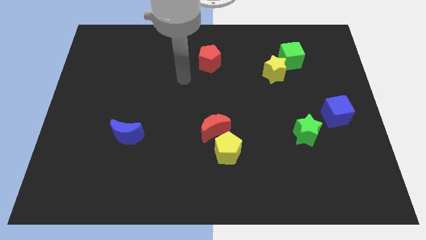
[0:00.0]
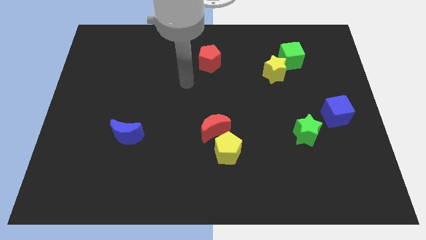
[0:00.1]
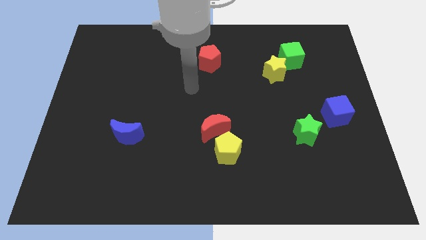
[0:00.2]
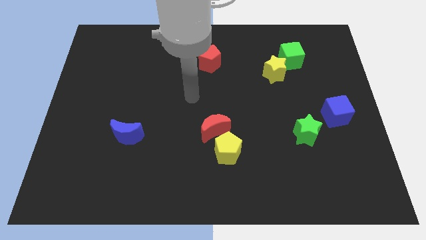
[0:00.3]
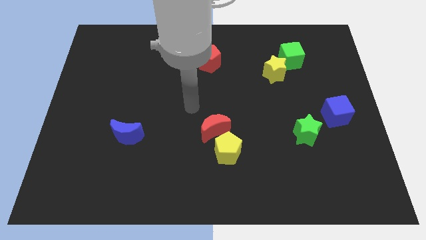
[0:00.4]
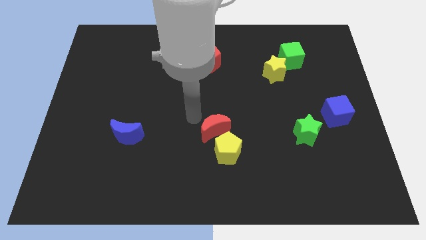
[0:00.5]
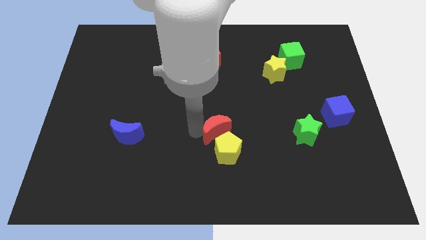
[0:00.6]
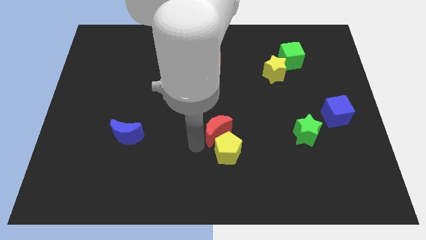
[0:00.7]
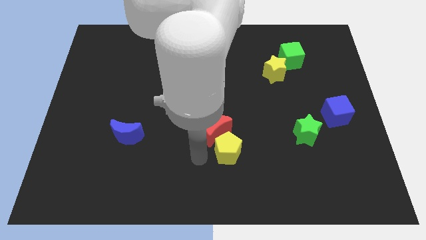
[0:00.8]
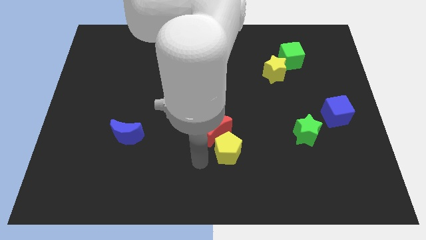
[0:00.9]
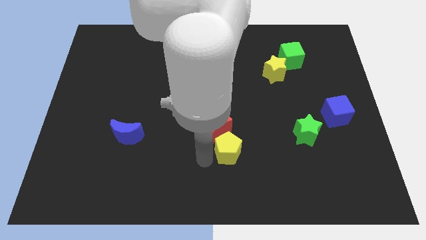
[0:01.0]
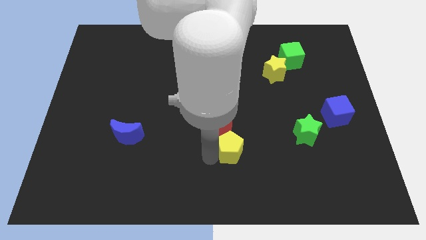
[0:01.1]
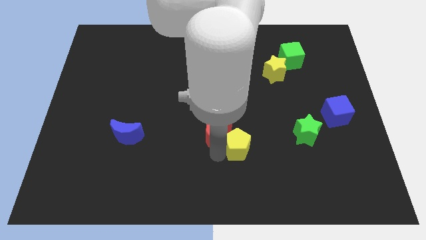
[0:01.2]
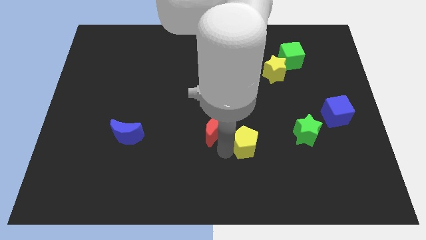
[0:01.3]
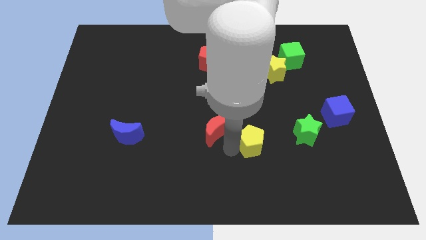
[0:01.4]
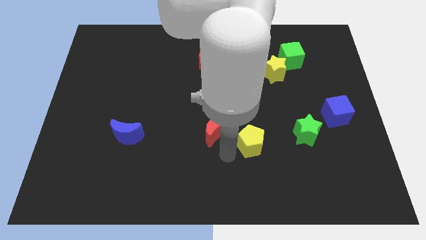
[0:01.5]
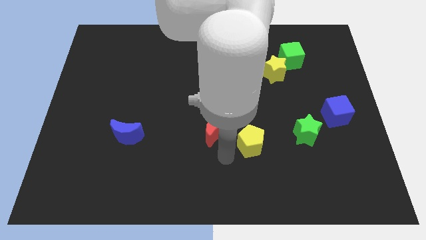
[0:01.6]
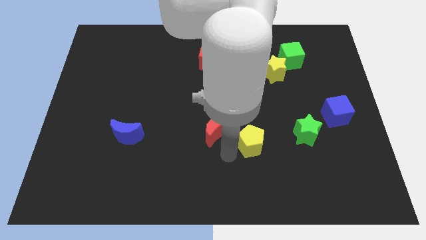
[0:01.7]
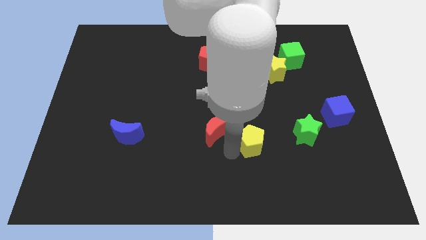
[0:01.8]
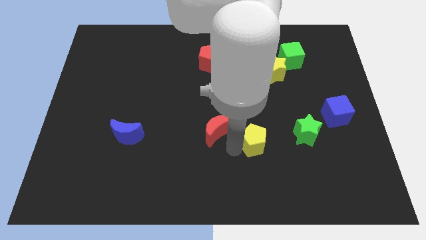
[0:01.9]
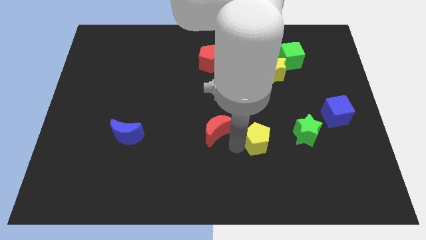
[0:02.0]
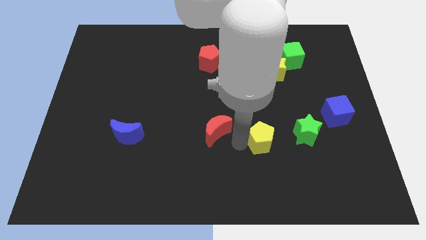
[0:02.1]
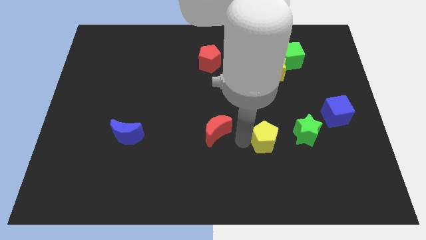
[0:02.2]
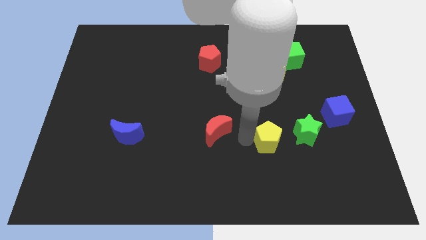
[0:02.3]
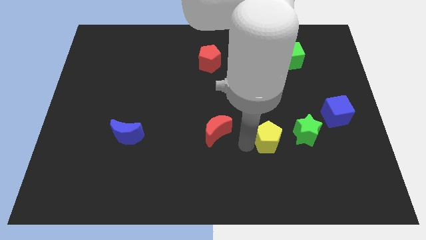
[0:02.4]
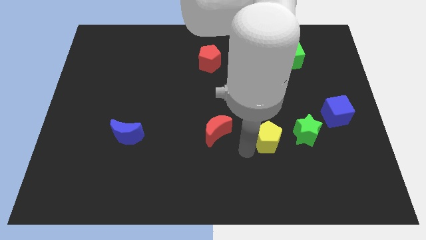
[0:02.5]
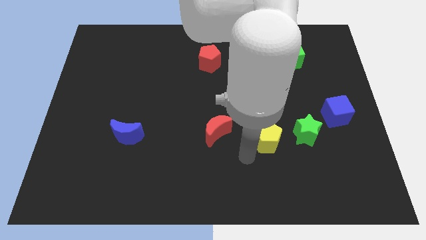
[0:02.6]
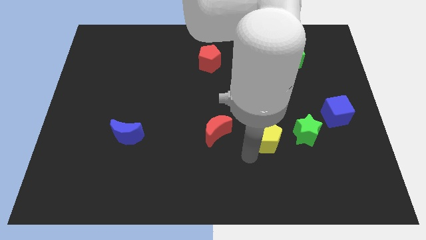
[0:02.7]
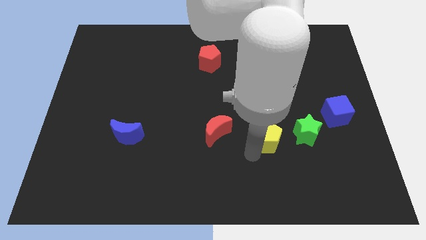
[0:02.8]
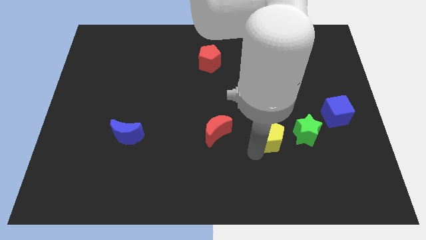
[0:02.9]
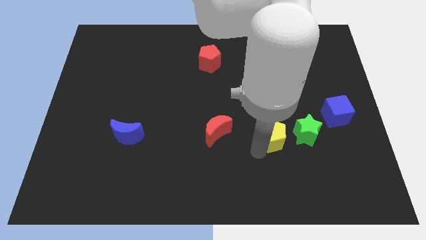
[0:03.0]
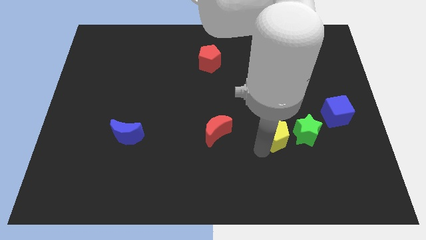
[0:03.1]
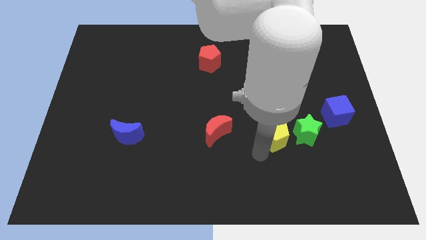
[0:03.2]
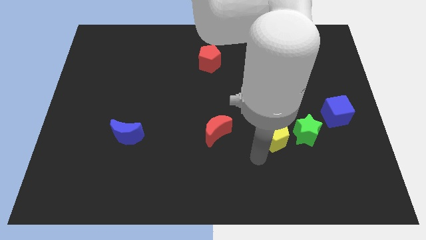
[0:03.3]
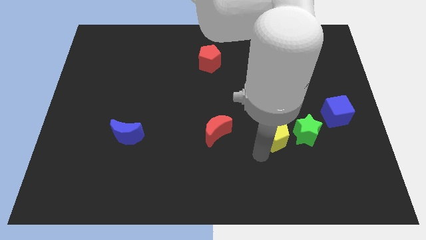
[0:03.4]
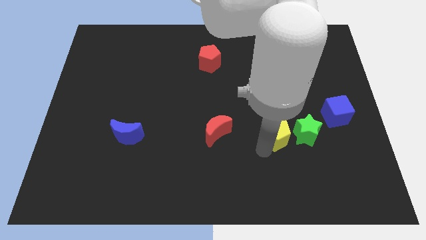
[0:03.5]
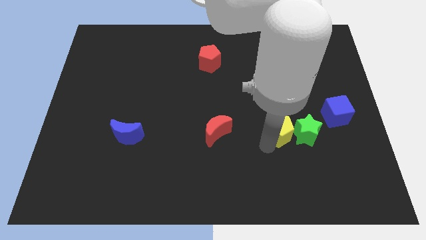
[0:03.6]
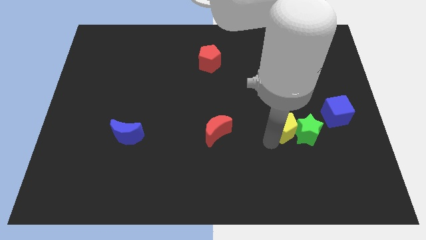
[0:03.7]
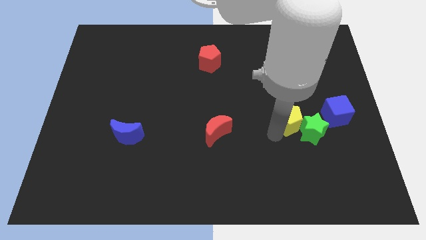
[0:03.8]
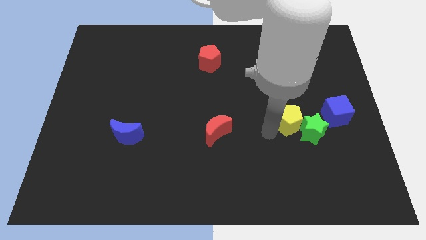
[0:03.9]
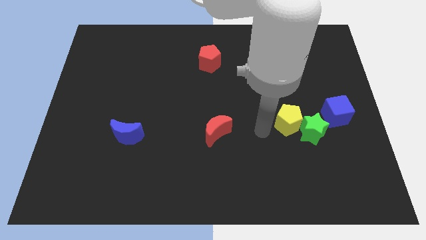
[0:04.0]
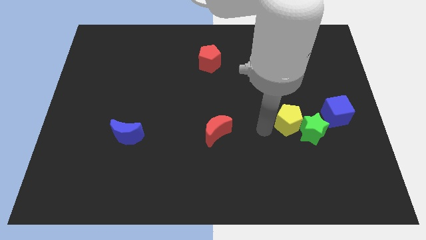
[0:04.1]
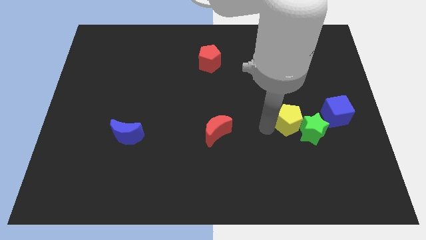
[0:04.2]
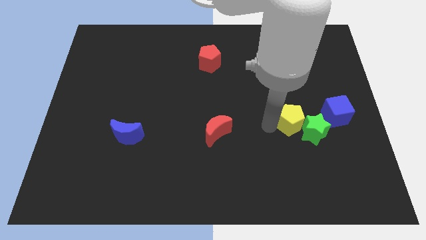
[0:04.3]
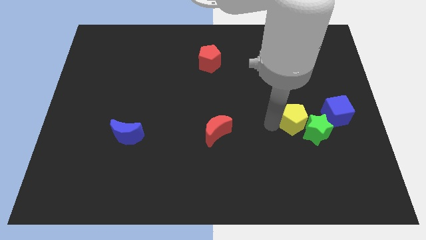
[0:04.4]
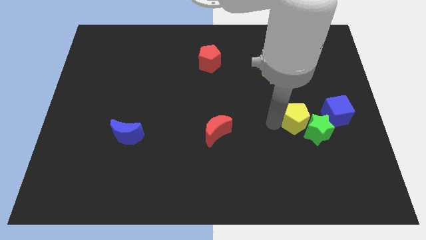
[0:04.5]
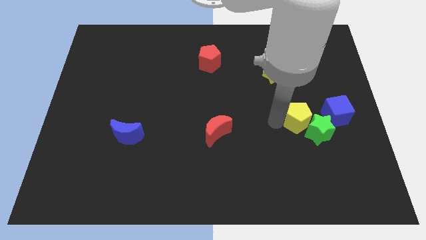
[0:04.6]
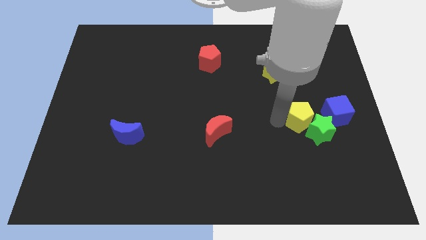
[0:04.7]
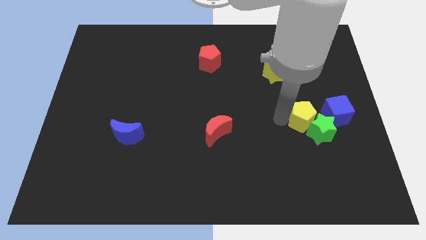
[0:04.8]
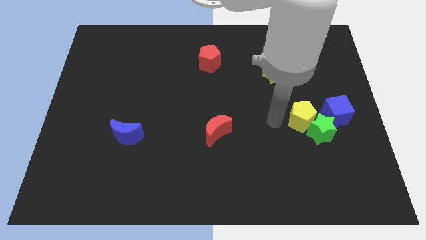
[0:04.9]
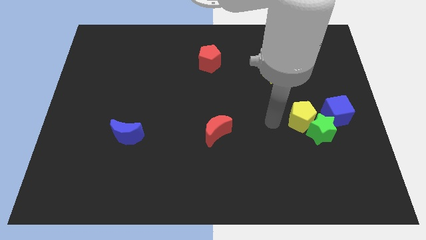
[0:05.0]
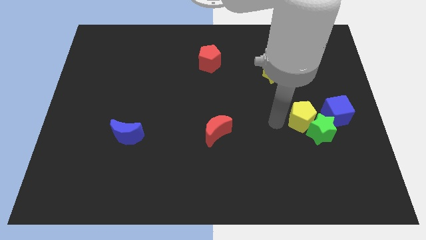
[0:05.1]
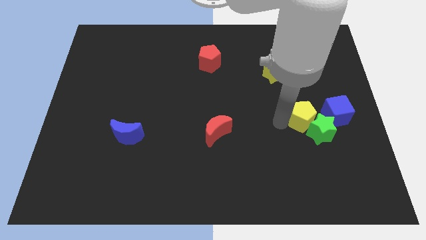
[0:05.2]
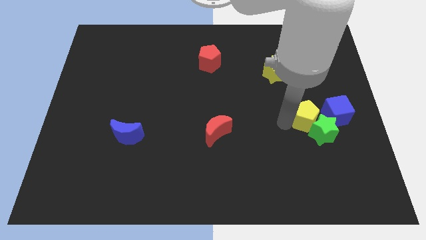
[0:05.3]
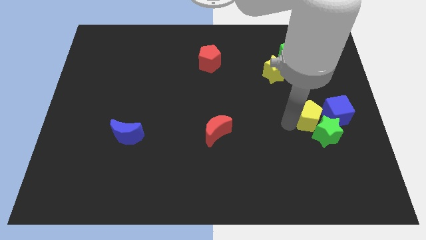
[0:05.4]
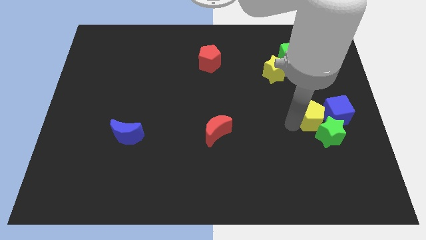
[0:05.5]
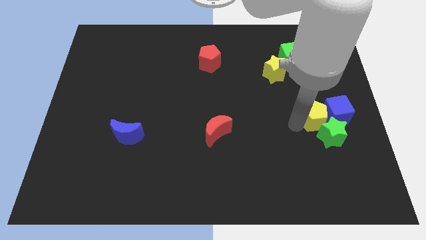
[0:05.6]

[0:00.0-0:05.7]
put the yellow pentagon to the blue cube

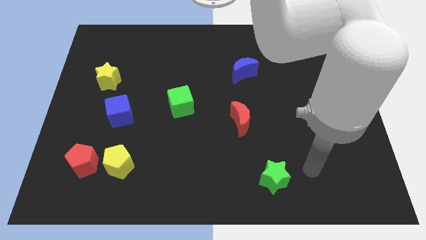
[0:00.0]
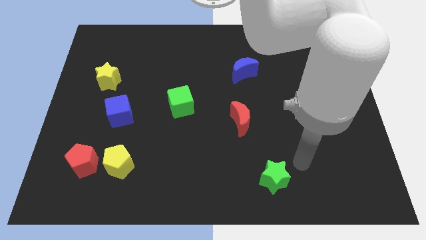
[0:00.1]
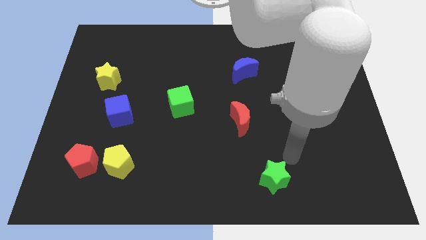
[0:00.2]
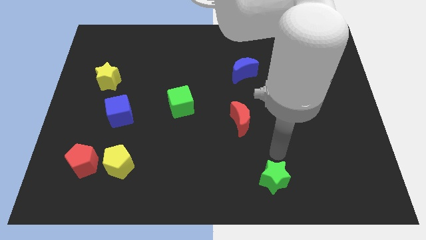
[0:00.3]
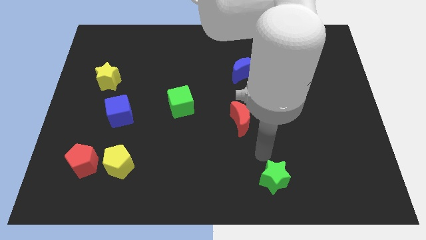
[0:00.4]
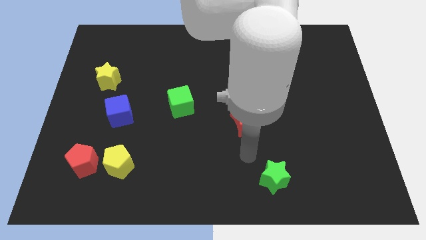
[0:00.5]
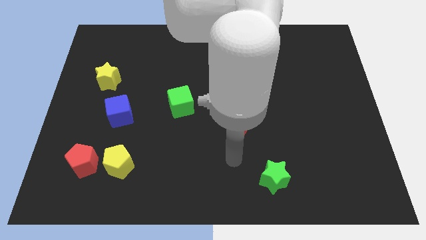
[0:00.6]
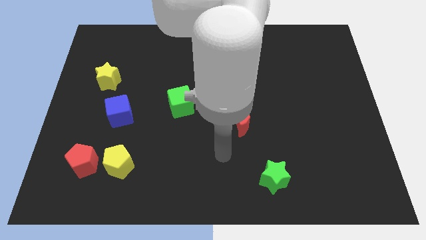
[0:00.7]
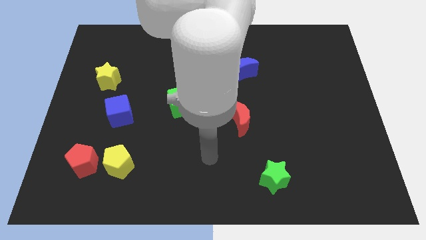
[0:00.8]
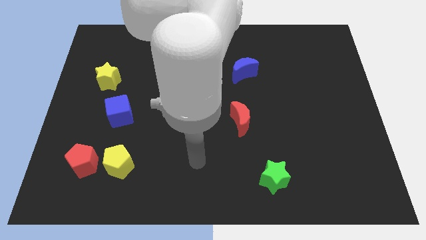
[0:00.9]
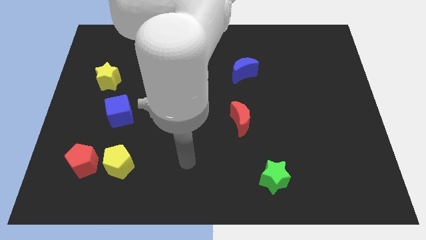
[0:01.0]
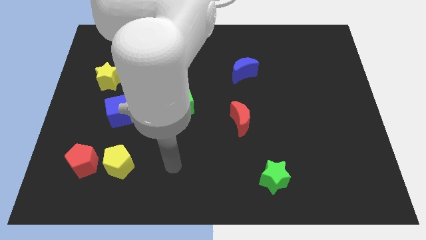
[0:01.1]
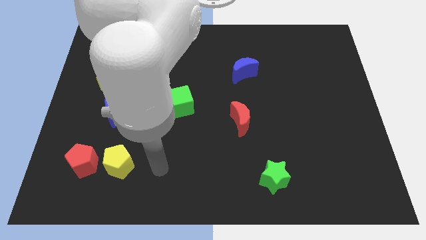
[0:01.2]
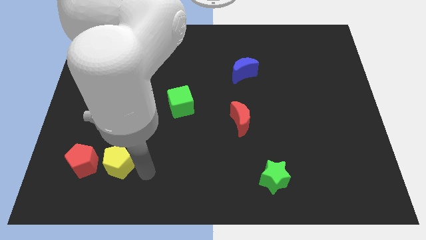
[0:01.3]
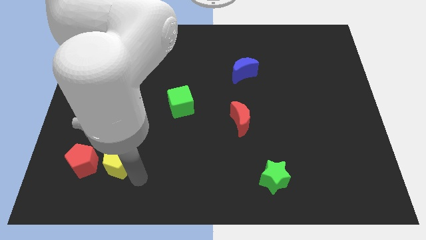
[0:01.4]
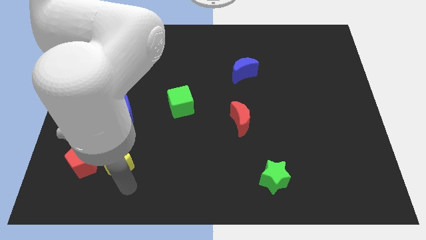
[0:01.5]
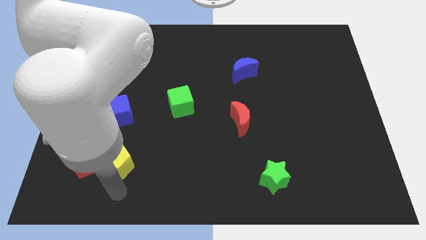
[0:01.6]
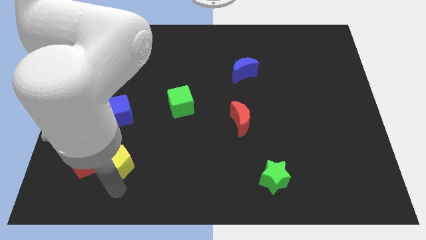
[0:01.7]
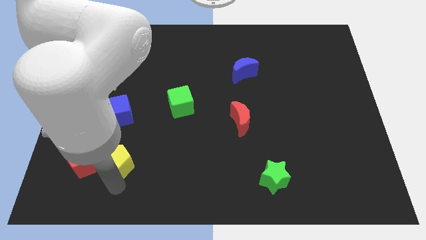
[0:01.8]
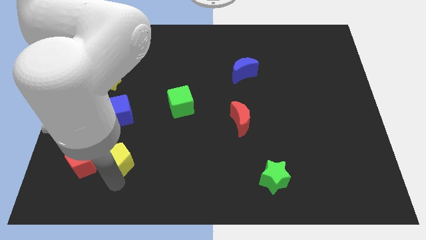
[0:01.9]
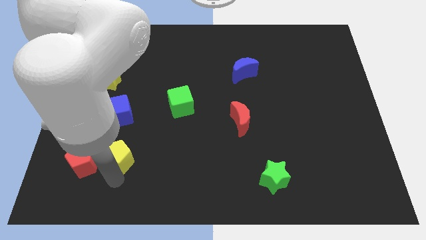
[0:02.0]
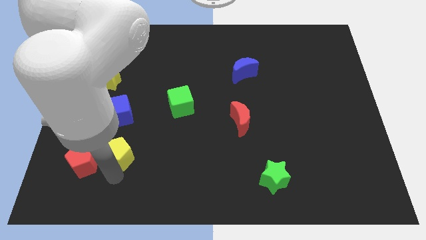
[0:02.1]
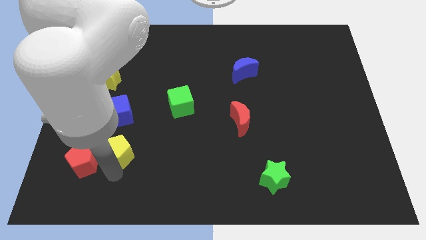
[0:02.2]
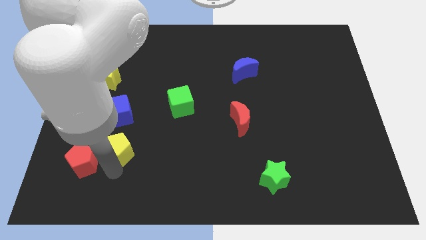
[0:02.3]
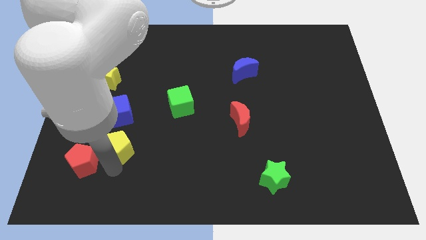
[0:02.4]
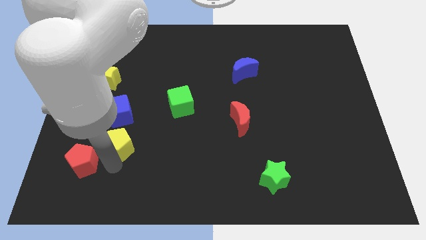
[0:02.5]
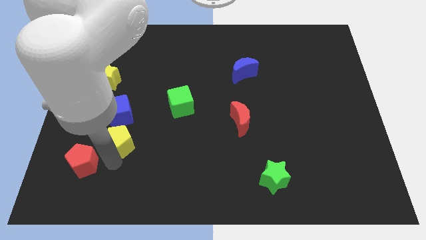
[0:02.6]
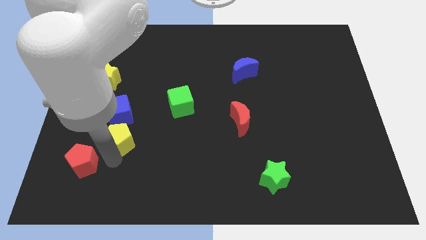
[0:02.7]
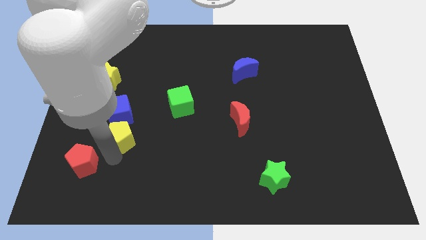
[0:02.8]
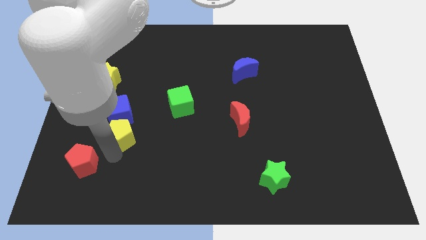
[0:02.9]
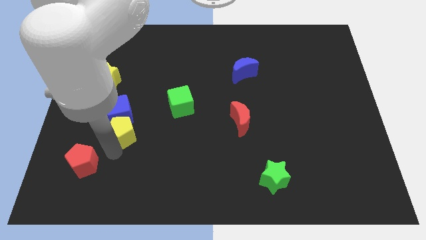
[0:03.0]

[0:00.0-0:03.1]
slide the yellow pentagon towards the blue cube
